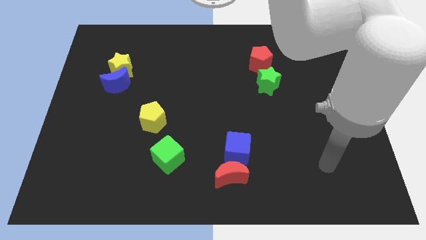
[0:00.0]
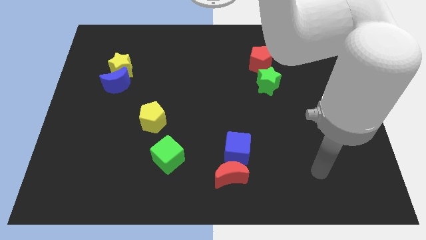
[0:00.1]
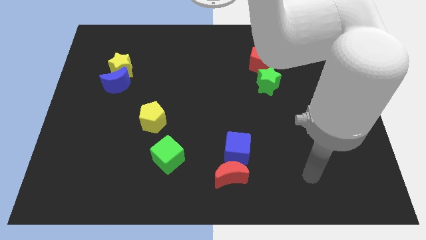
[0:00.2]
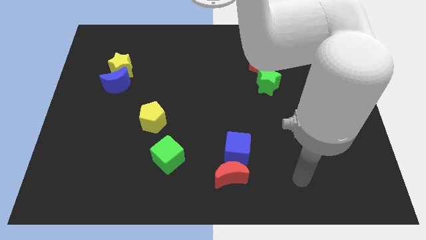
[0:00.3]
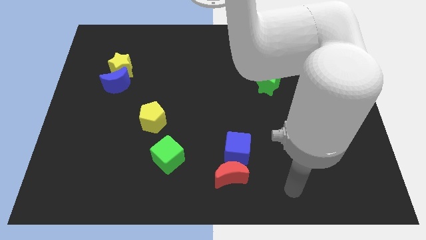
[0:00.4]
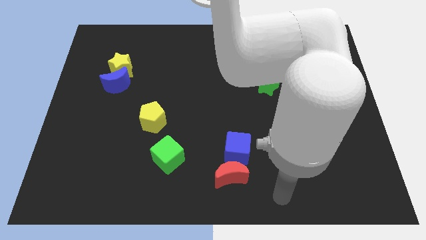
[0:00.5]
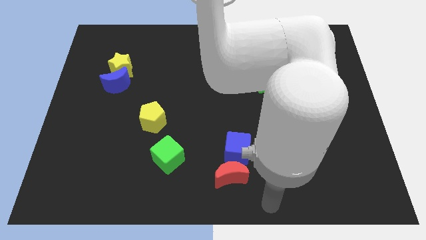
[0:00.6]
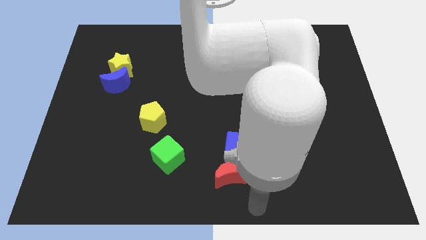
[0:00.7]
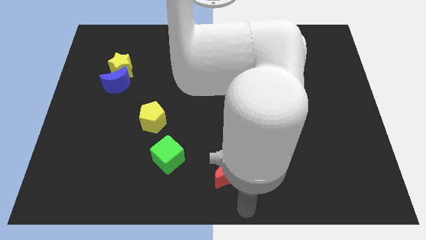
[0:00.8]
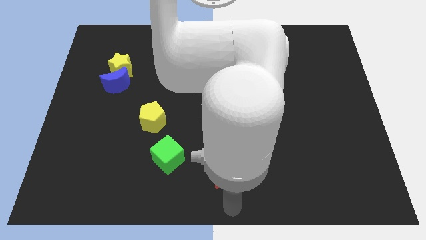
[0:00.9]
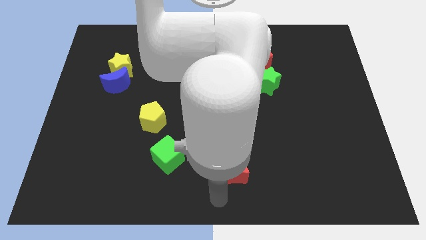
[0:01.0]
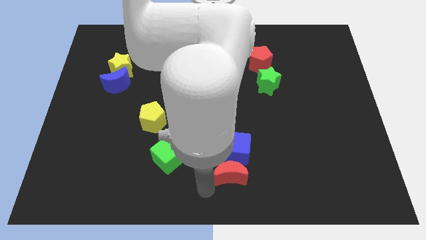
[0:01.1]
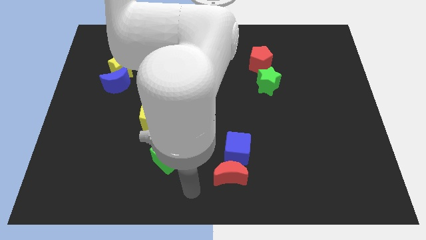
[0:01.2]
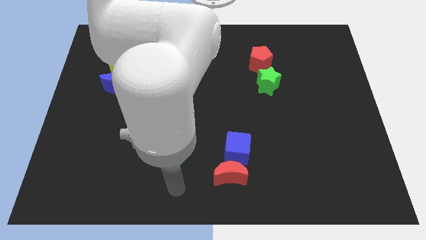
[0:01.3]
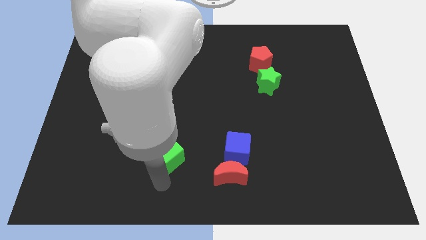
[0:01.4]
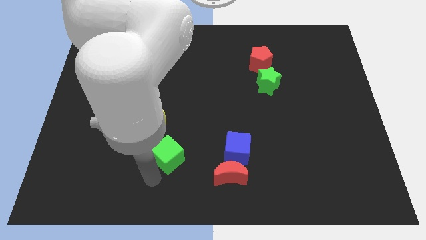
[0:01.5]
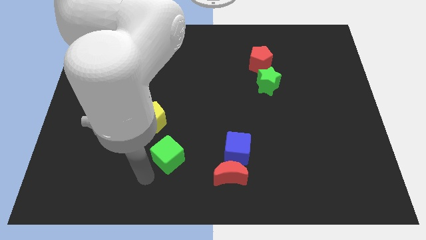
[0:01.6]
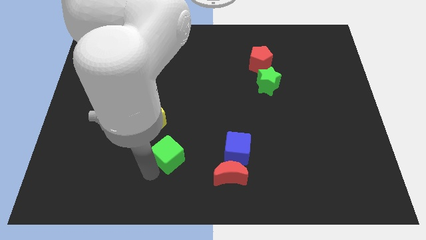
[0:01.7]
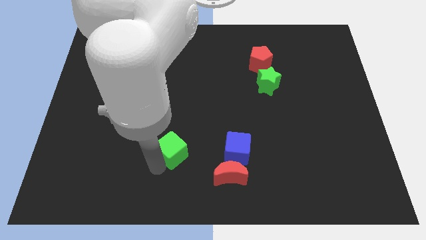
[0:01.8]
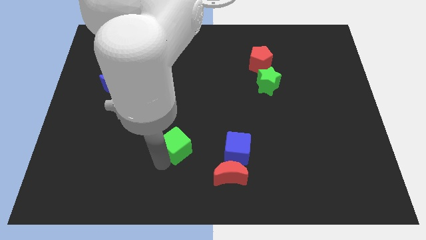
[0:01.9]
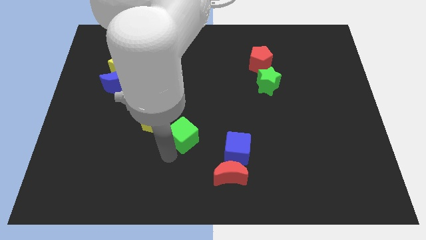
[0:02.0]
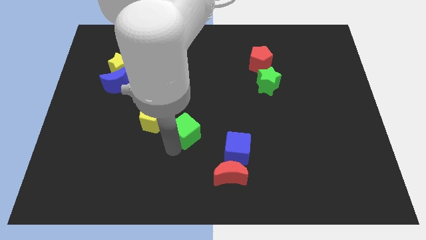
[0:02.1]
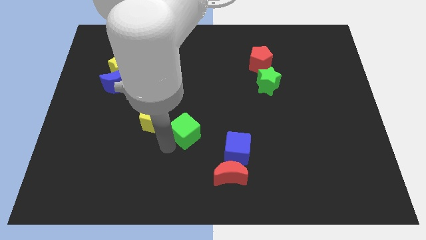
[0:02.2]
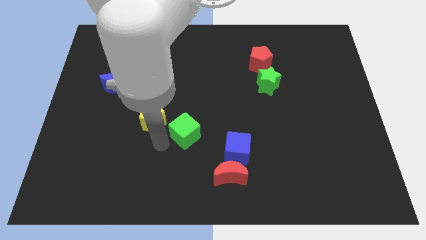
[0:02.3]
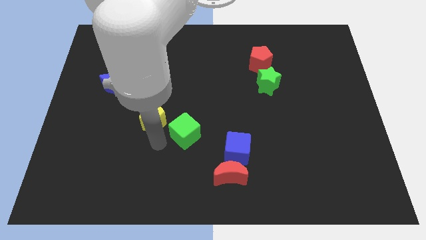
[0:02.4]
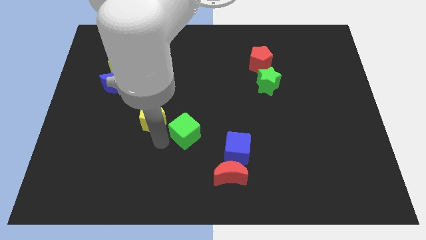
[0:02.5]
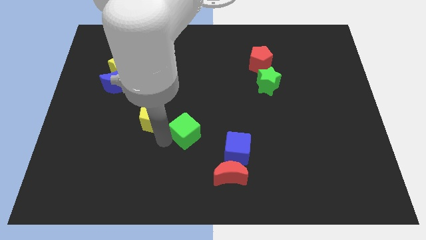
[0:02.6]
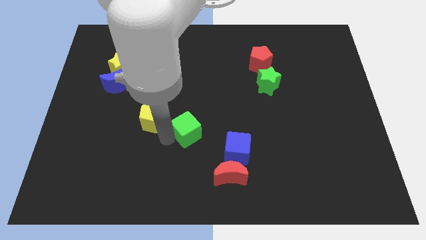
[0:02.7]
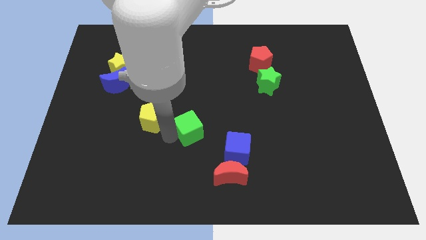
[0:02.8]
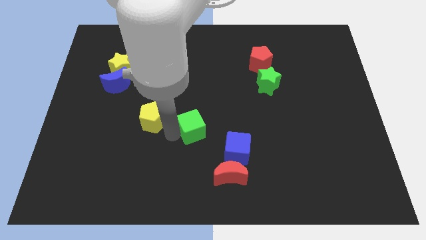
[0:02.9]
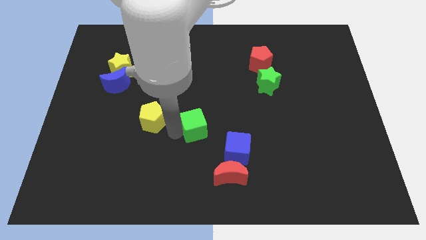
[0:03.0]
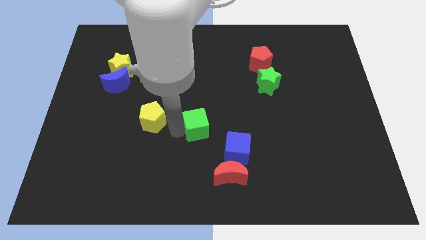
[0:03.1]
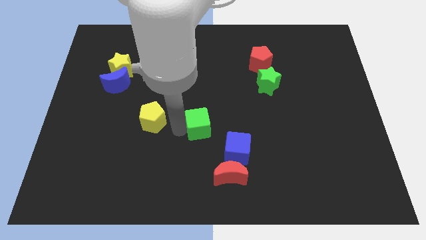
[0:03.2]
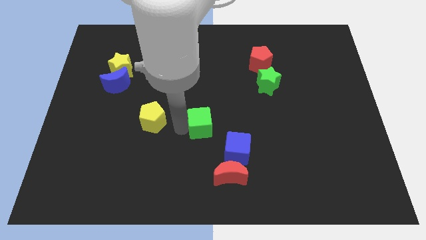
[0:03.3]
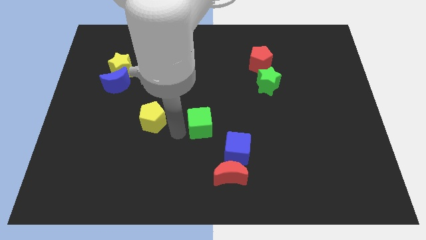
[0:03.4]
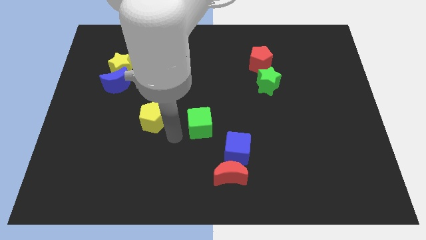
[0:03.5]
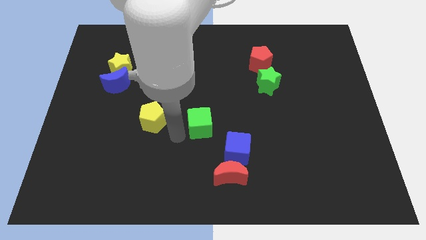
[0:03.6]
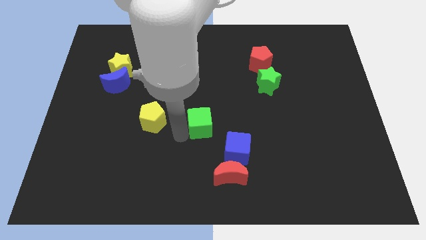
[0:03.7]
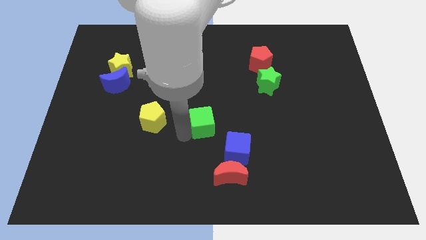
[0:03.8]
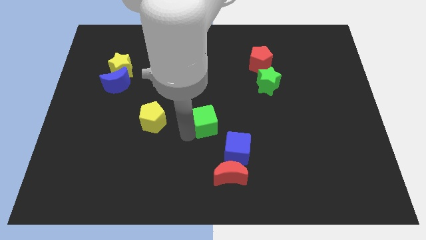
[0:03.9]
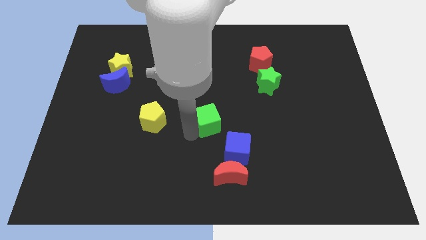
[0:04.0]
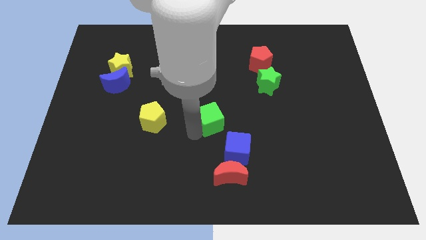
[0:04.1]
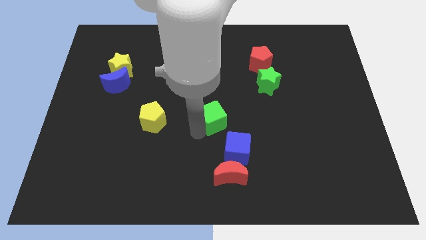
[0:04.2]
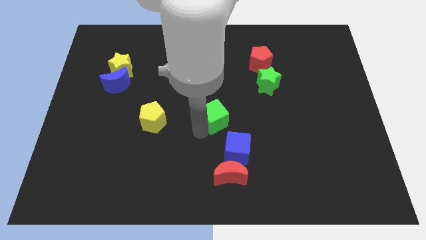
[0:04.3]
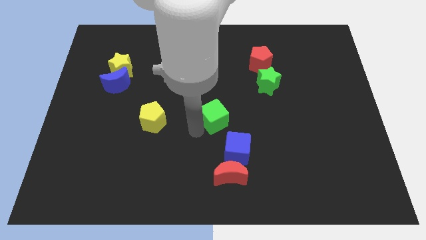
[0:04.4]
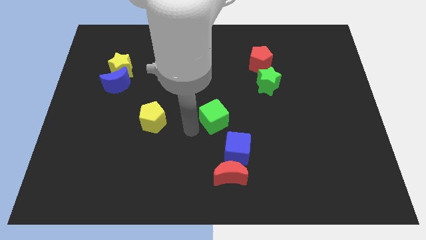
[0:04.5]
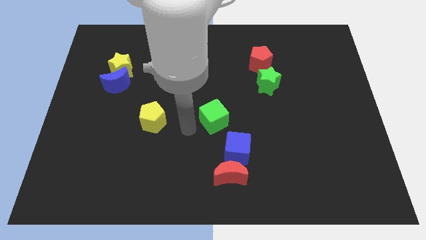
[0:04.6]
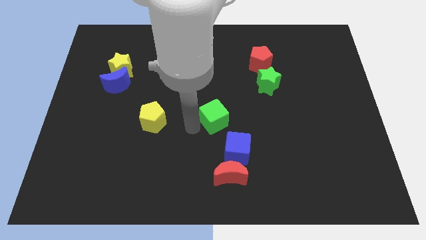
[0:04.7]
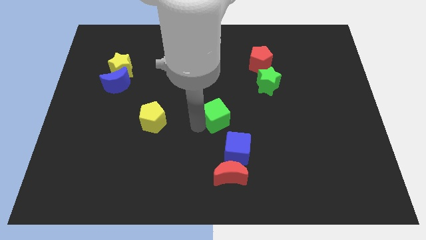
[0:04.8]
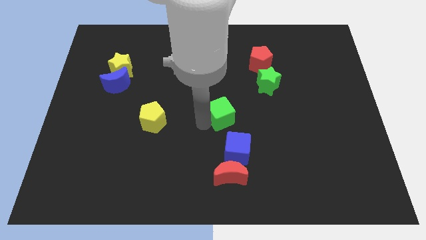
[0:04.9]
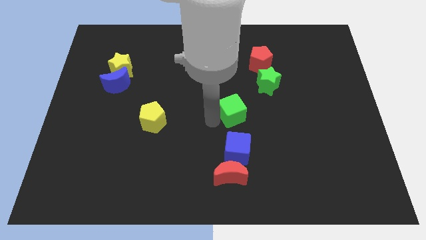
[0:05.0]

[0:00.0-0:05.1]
move the green cube to the bottom left side of the green star

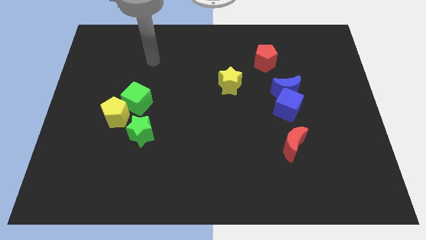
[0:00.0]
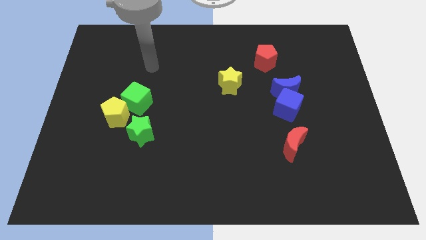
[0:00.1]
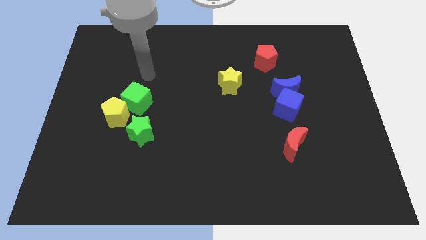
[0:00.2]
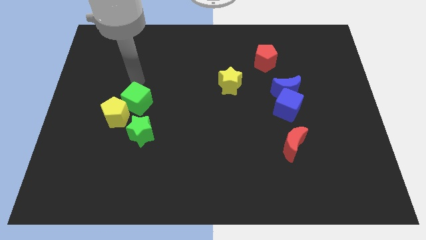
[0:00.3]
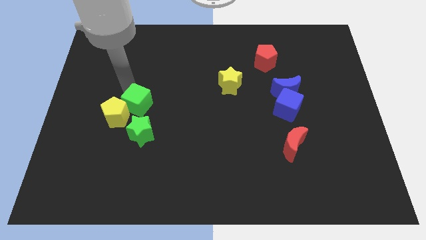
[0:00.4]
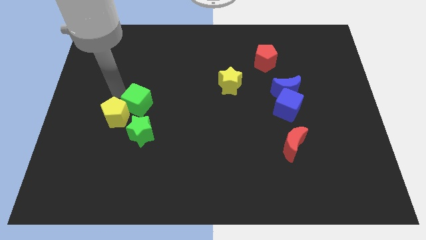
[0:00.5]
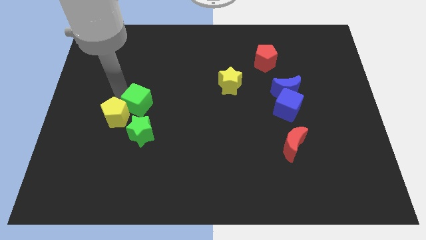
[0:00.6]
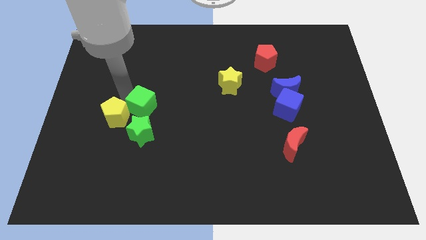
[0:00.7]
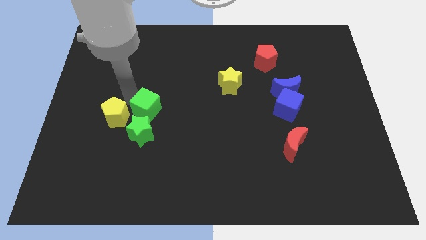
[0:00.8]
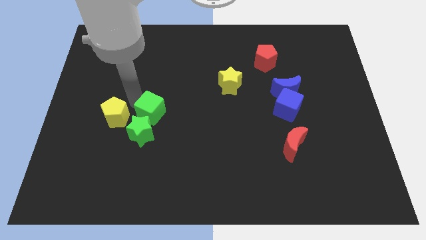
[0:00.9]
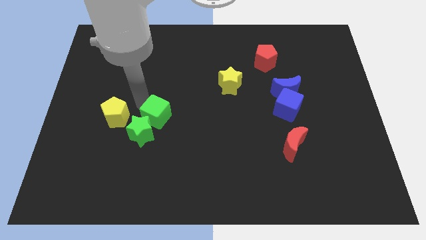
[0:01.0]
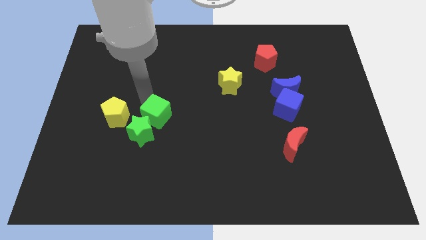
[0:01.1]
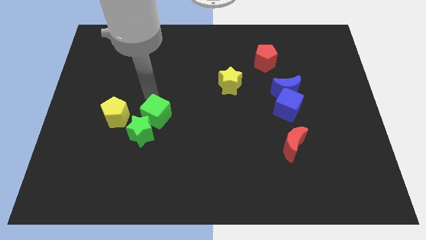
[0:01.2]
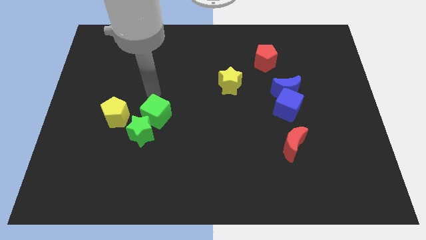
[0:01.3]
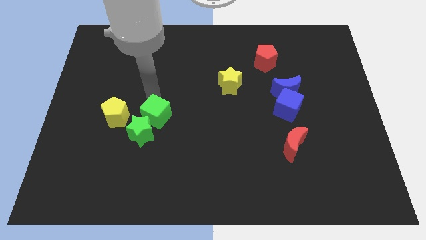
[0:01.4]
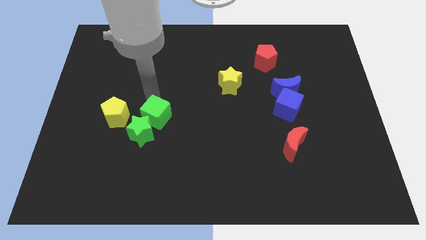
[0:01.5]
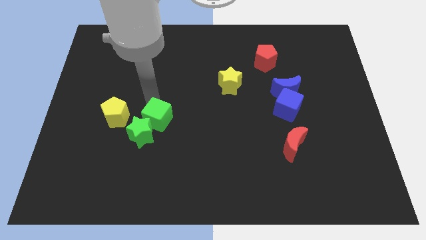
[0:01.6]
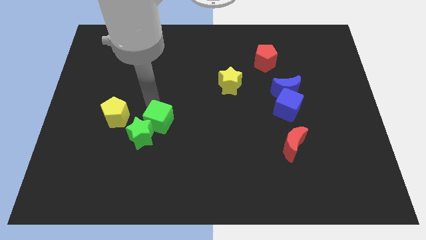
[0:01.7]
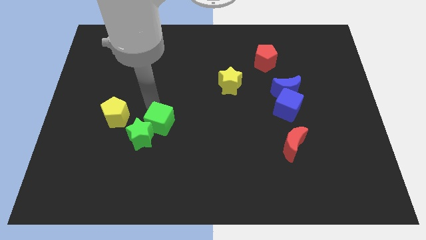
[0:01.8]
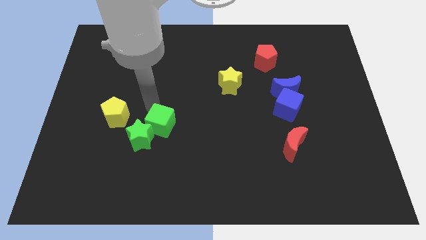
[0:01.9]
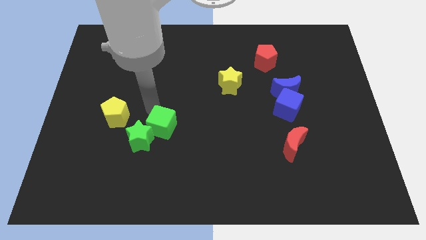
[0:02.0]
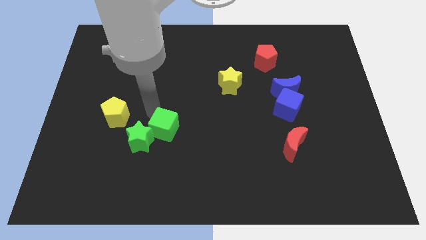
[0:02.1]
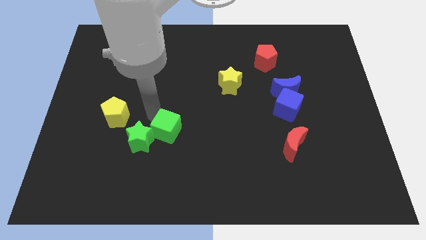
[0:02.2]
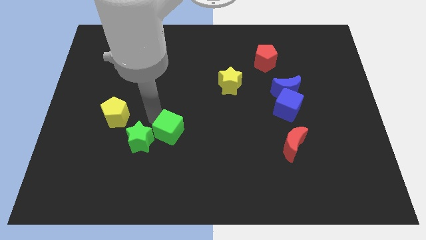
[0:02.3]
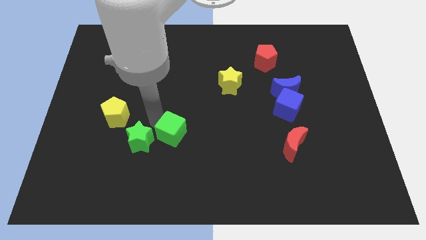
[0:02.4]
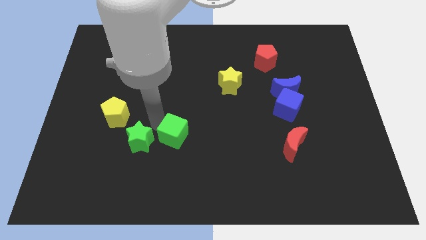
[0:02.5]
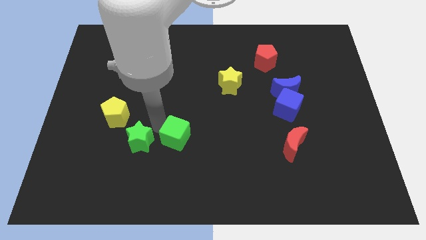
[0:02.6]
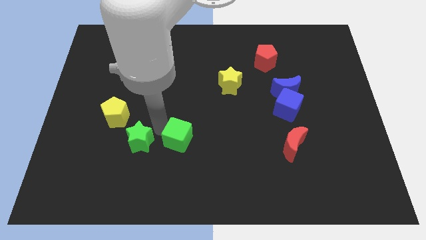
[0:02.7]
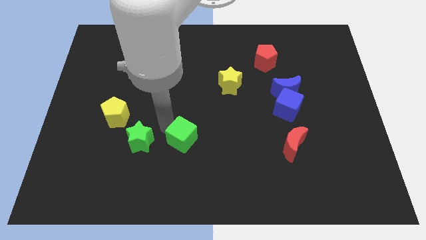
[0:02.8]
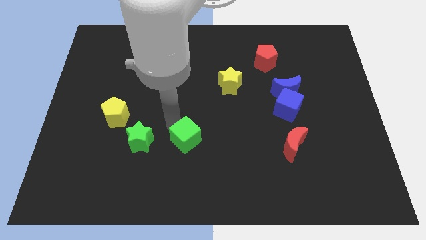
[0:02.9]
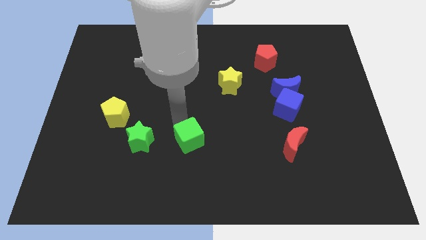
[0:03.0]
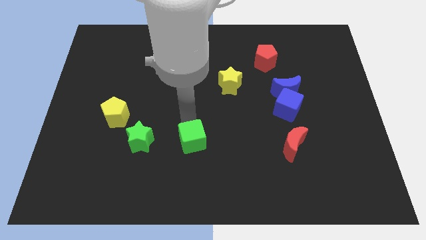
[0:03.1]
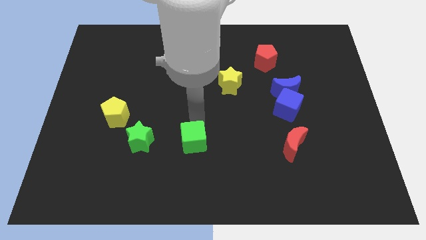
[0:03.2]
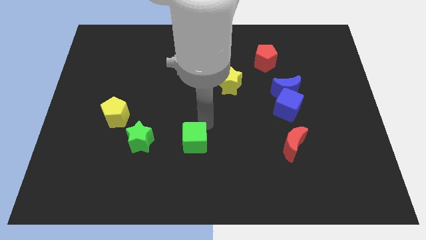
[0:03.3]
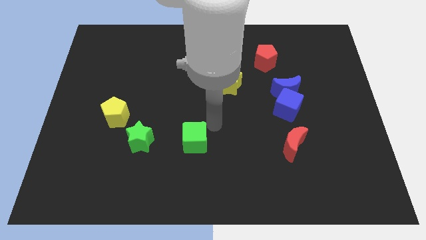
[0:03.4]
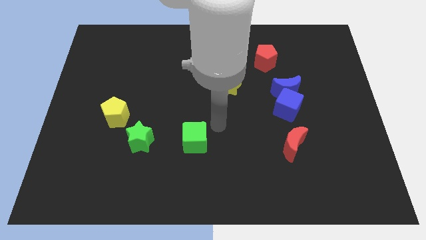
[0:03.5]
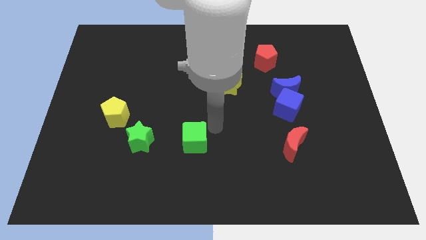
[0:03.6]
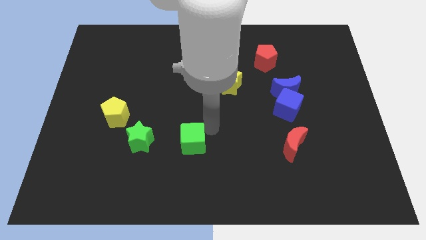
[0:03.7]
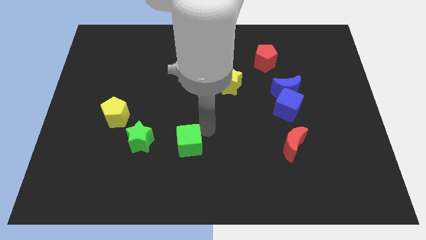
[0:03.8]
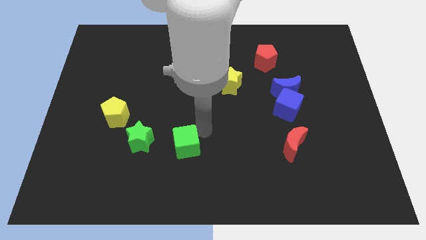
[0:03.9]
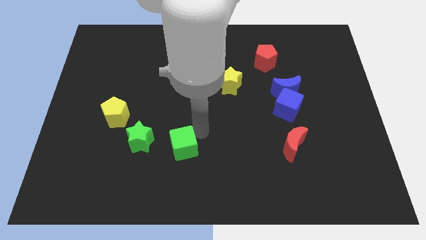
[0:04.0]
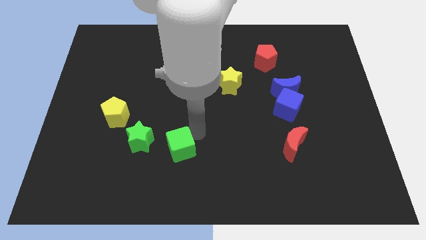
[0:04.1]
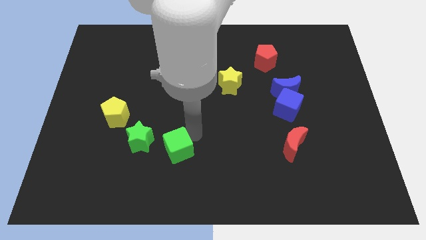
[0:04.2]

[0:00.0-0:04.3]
slide the green cube diagonally down and to the right of the green star
